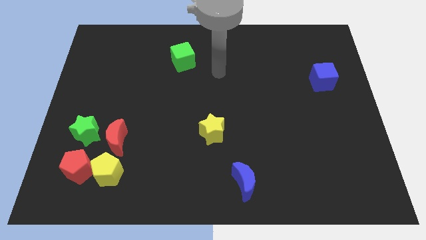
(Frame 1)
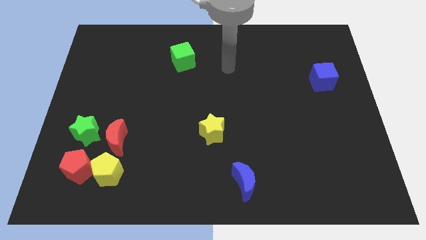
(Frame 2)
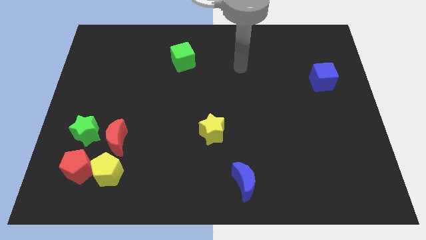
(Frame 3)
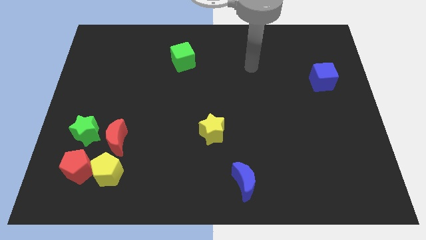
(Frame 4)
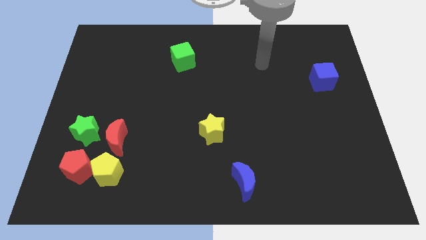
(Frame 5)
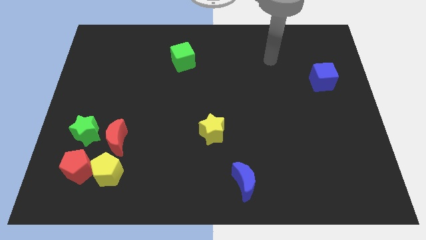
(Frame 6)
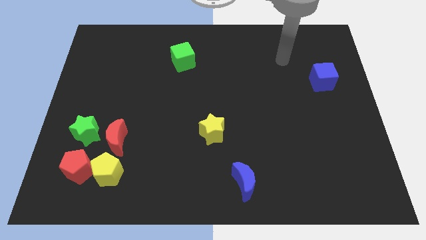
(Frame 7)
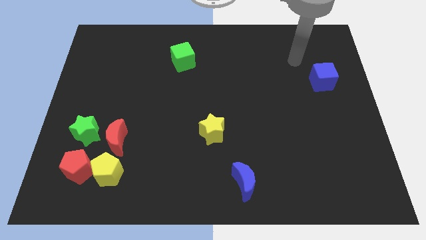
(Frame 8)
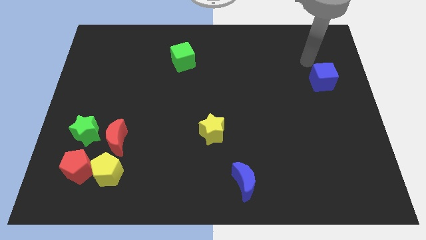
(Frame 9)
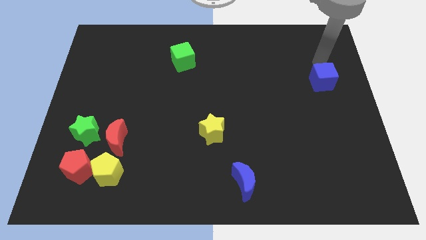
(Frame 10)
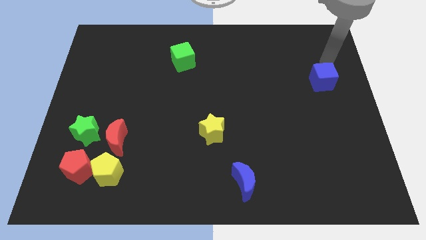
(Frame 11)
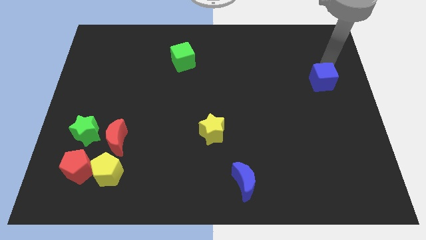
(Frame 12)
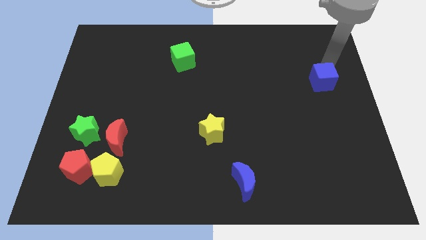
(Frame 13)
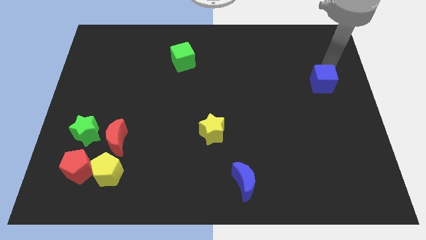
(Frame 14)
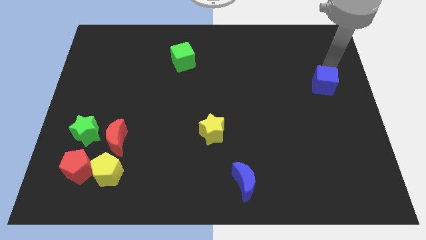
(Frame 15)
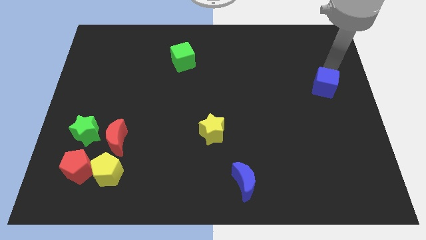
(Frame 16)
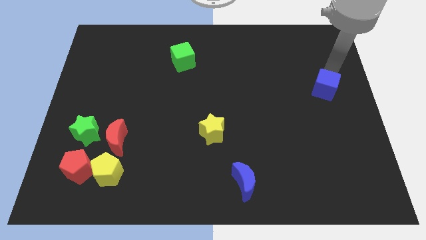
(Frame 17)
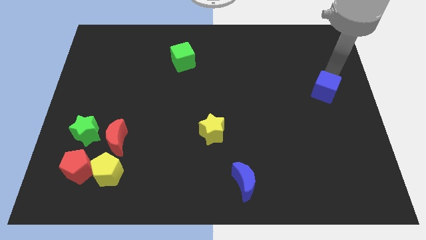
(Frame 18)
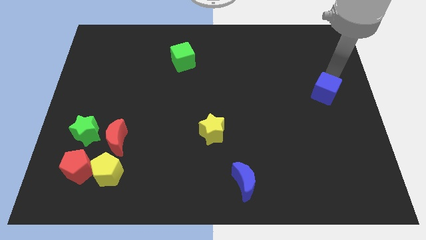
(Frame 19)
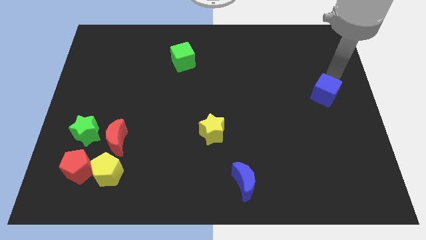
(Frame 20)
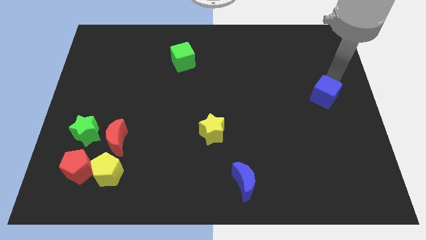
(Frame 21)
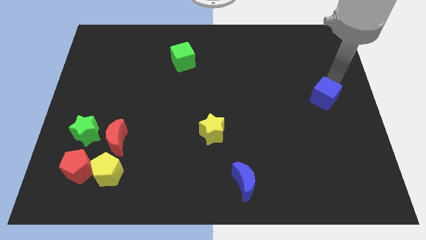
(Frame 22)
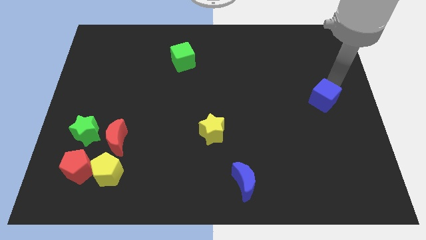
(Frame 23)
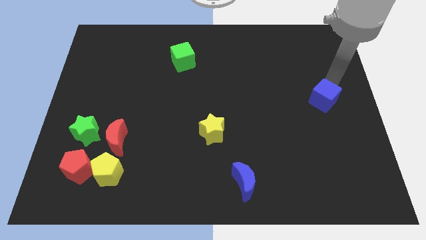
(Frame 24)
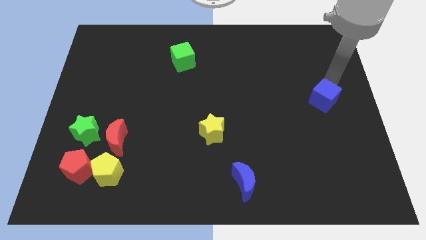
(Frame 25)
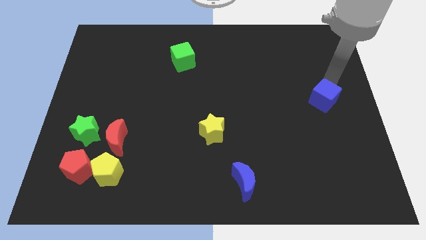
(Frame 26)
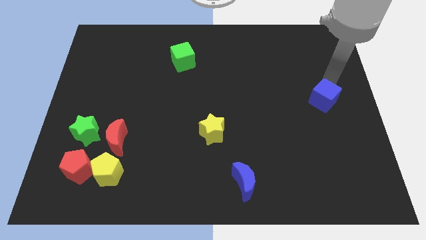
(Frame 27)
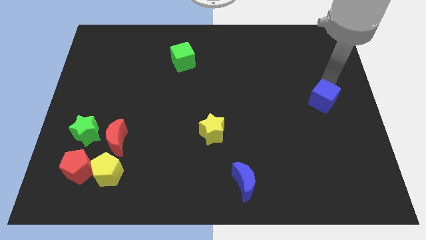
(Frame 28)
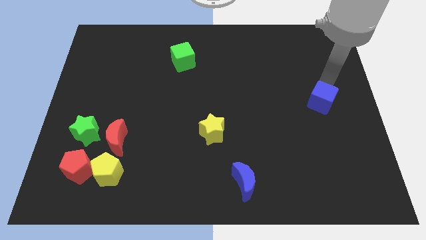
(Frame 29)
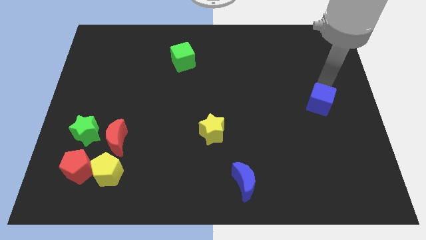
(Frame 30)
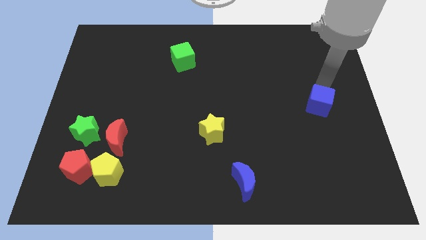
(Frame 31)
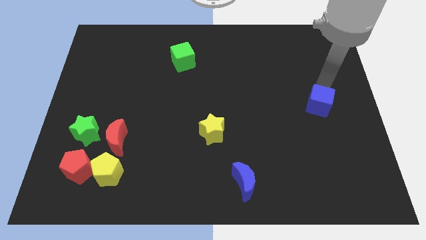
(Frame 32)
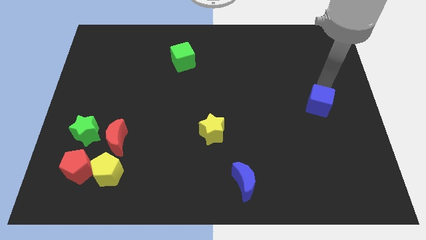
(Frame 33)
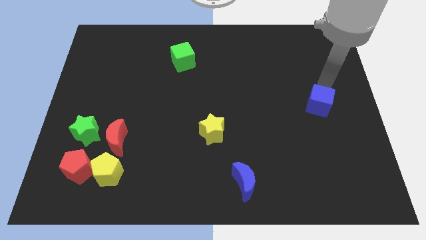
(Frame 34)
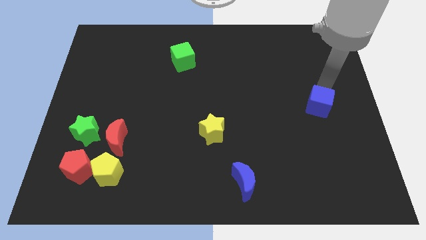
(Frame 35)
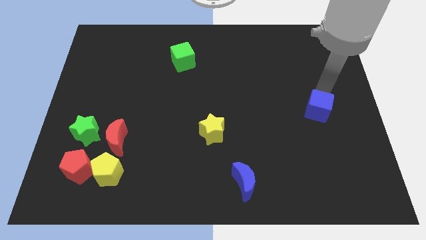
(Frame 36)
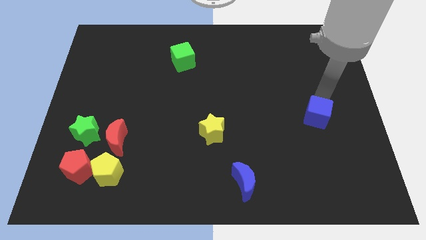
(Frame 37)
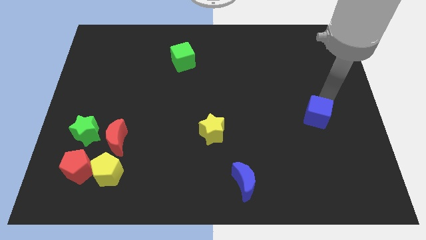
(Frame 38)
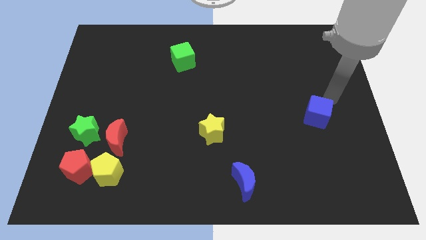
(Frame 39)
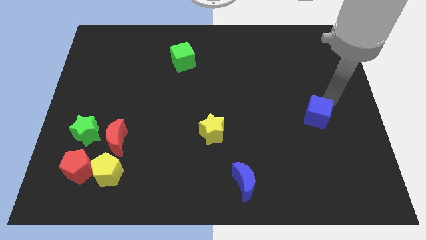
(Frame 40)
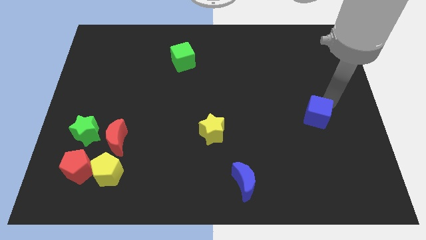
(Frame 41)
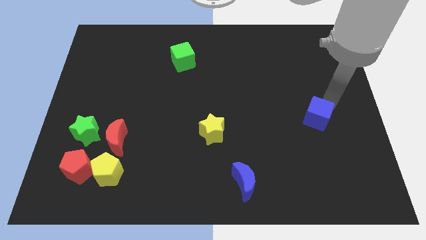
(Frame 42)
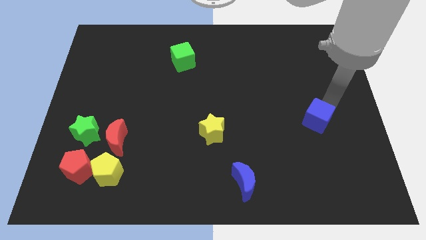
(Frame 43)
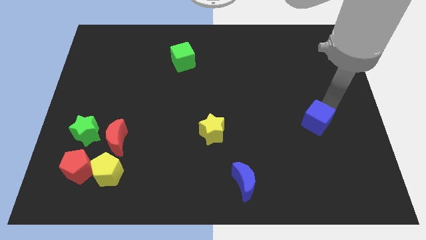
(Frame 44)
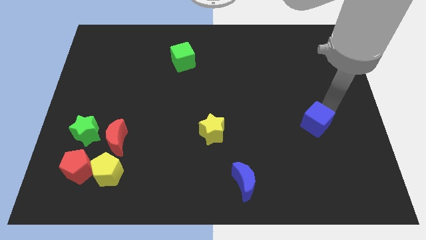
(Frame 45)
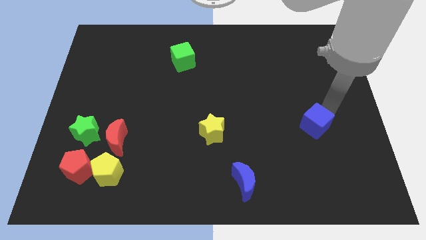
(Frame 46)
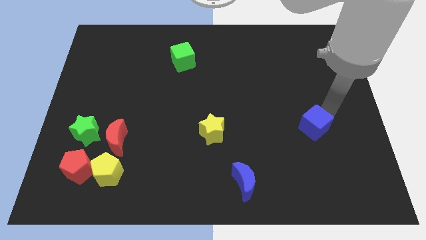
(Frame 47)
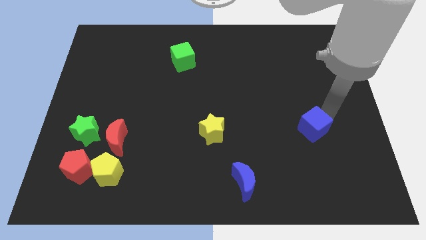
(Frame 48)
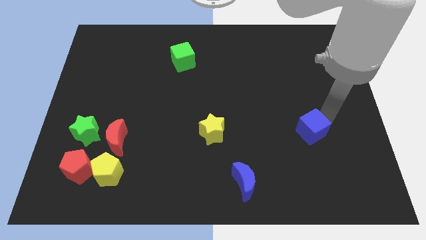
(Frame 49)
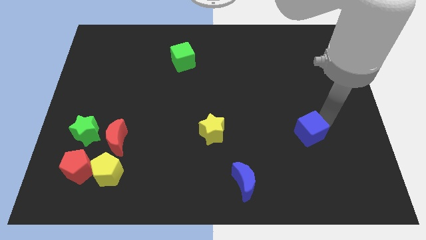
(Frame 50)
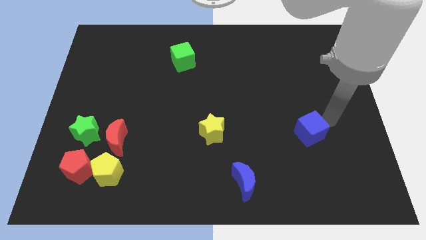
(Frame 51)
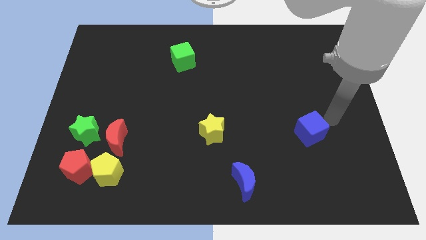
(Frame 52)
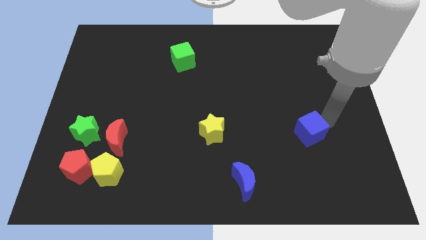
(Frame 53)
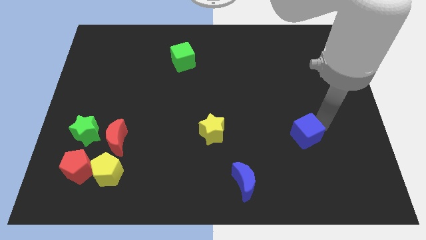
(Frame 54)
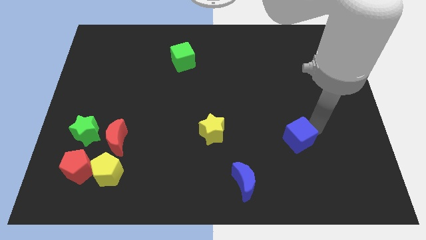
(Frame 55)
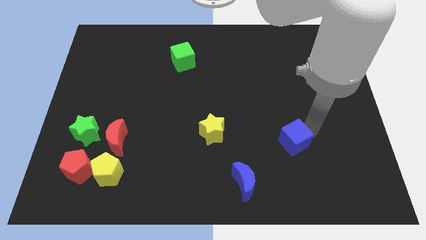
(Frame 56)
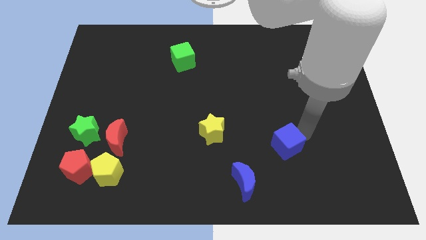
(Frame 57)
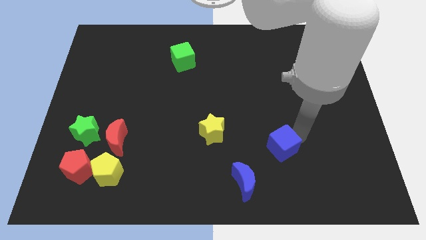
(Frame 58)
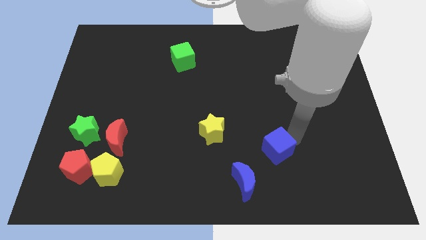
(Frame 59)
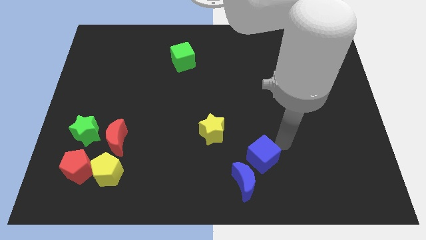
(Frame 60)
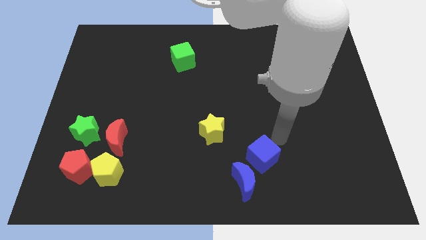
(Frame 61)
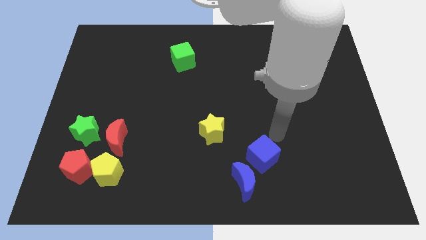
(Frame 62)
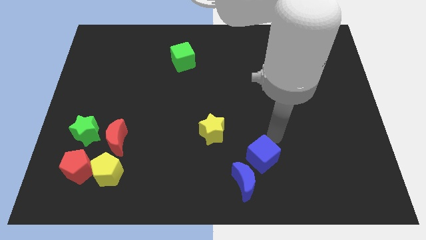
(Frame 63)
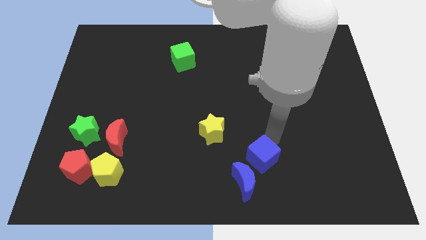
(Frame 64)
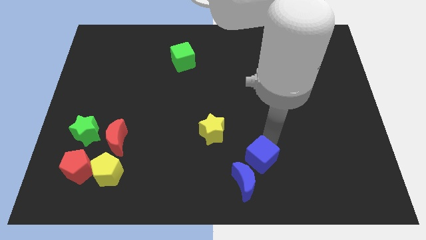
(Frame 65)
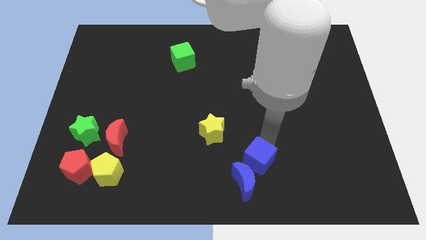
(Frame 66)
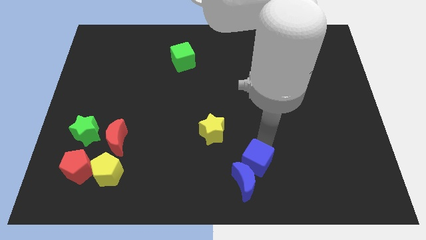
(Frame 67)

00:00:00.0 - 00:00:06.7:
push the blue cube to the blue moon

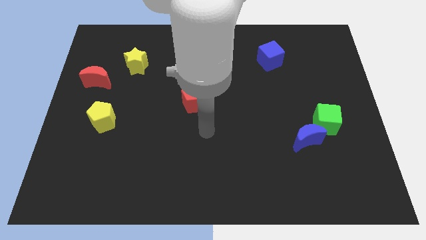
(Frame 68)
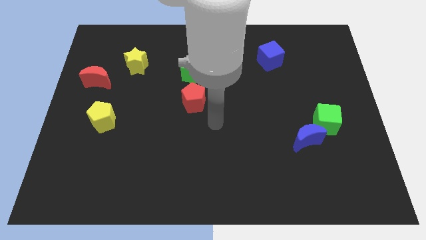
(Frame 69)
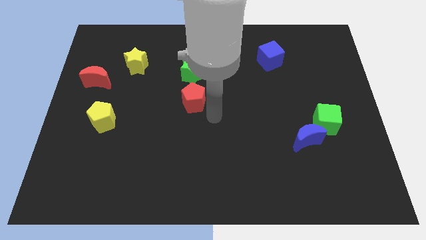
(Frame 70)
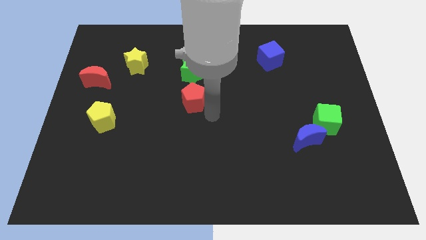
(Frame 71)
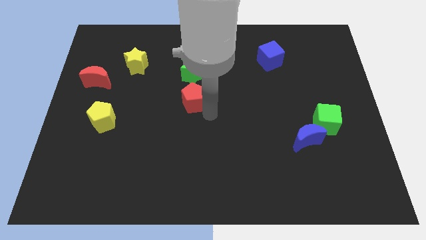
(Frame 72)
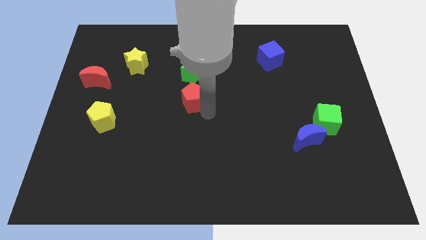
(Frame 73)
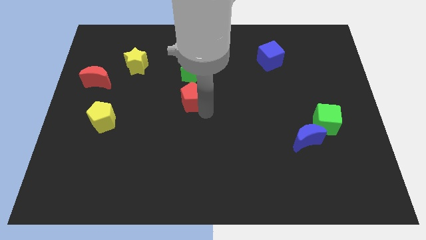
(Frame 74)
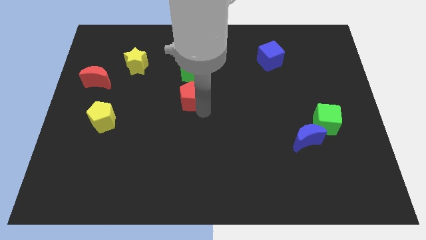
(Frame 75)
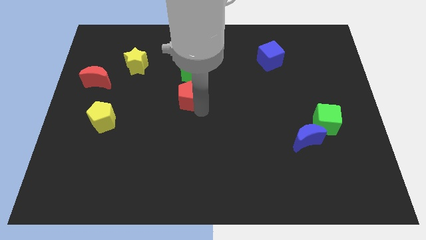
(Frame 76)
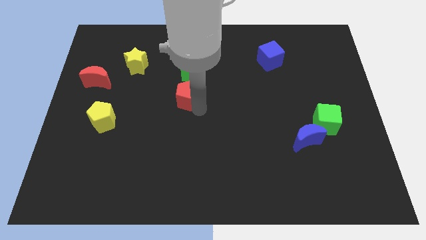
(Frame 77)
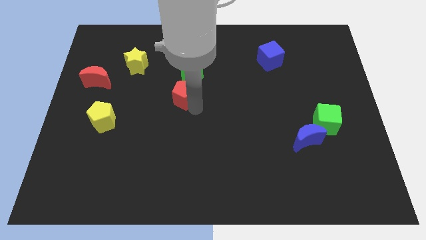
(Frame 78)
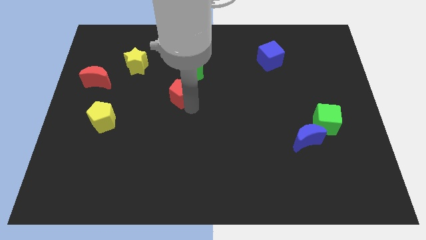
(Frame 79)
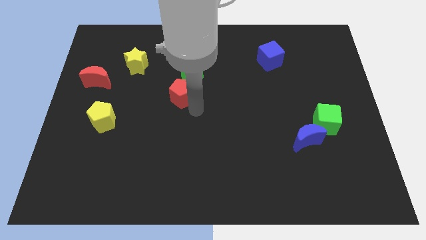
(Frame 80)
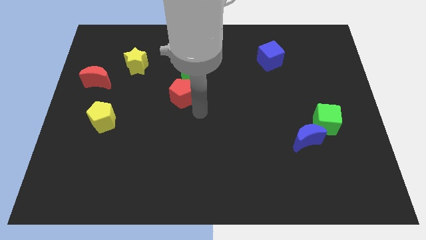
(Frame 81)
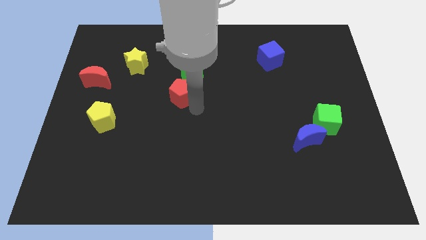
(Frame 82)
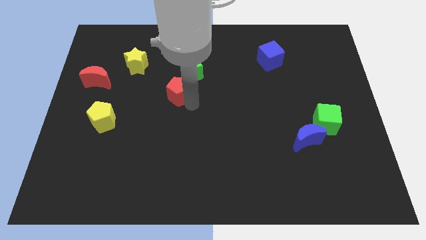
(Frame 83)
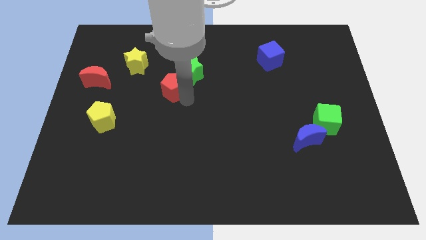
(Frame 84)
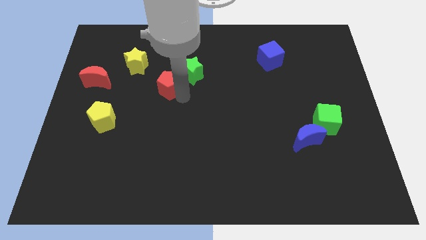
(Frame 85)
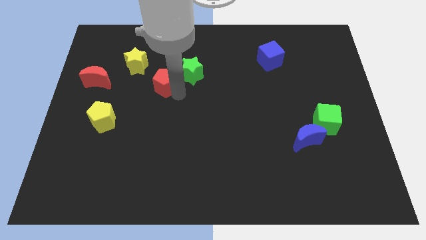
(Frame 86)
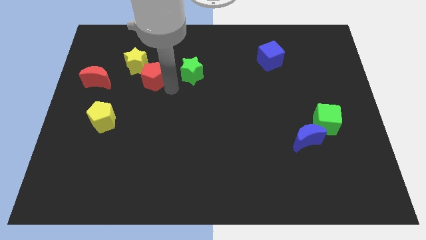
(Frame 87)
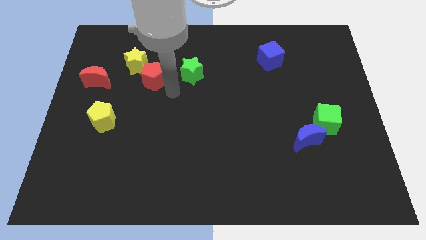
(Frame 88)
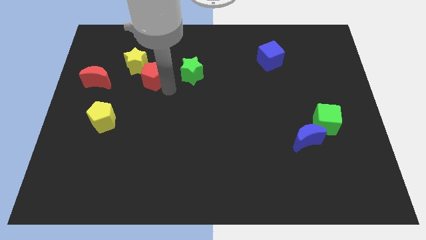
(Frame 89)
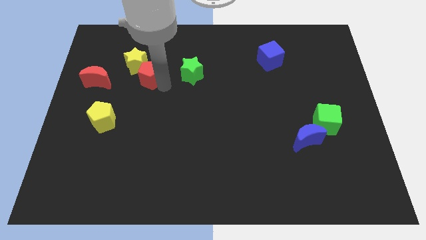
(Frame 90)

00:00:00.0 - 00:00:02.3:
move the red pentagon to the yellow star
